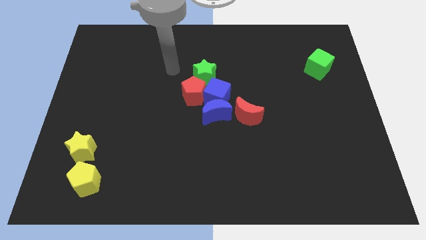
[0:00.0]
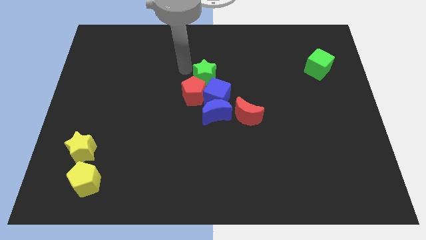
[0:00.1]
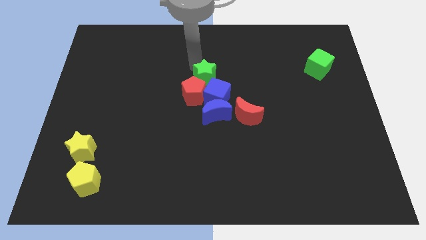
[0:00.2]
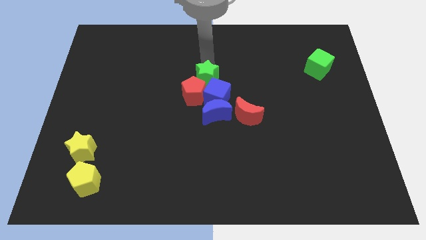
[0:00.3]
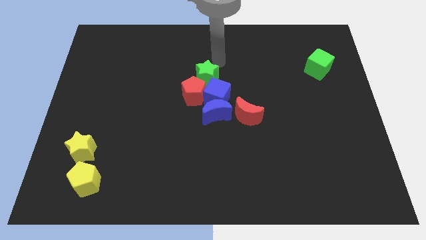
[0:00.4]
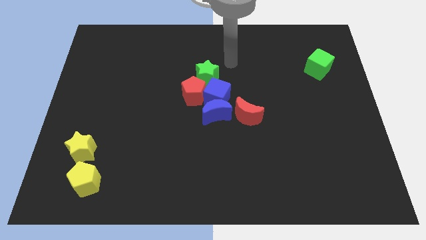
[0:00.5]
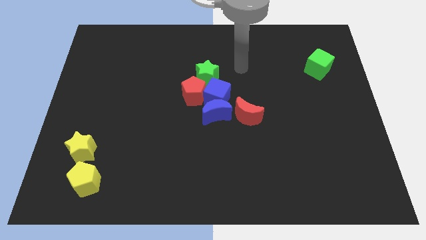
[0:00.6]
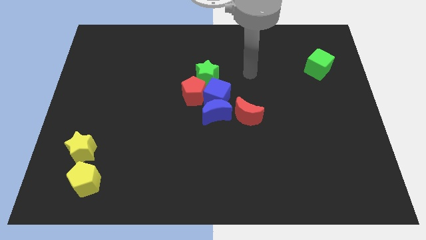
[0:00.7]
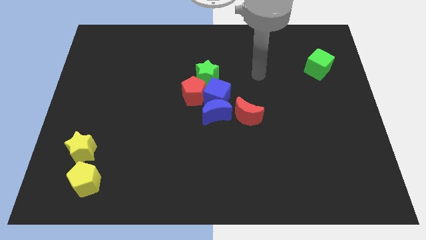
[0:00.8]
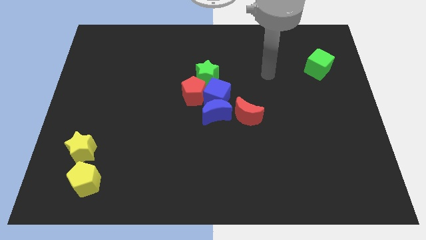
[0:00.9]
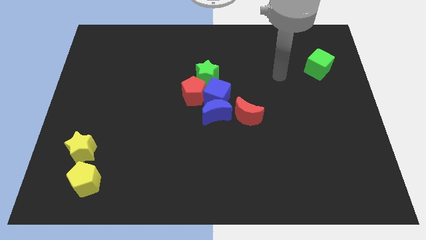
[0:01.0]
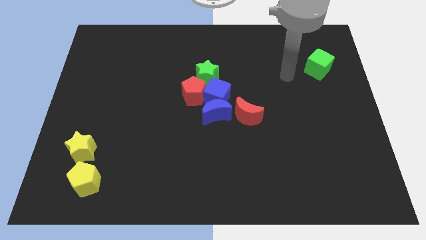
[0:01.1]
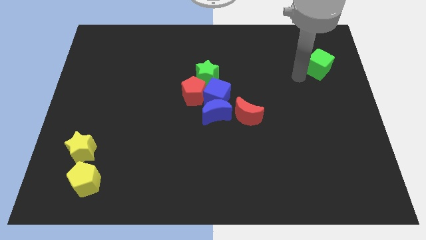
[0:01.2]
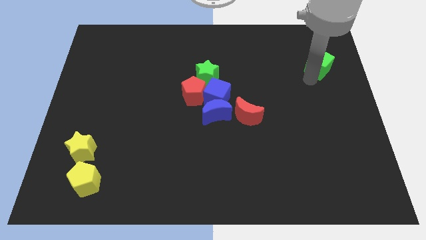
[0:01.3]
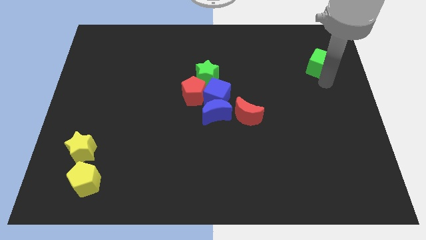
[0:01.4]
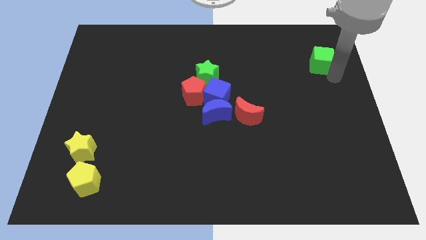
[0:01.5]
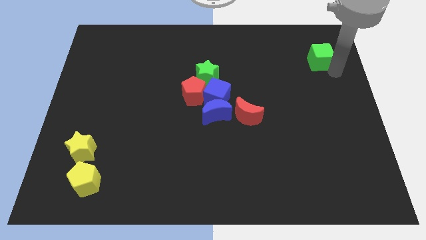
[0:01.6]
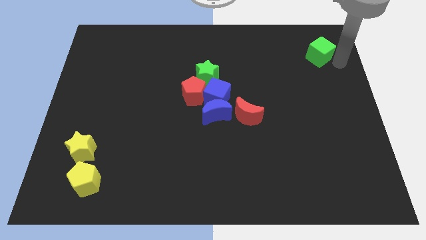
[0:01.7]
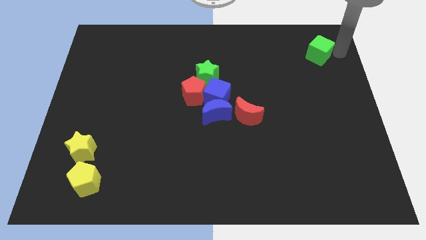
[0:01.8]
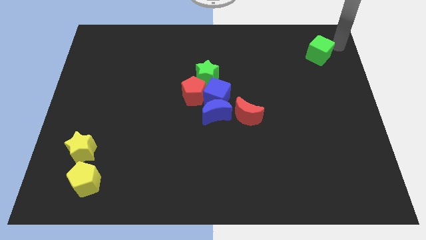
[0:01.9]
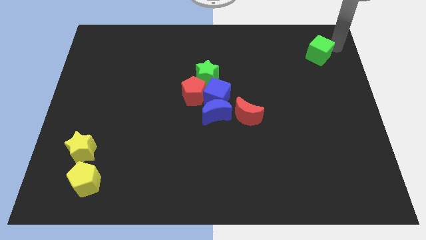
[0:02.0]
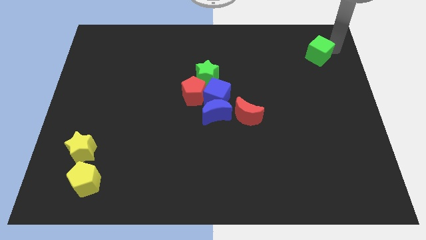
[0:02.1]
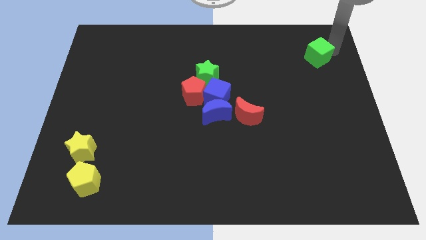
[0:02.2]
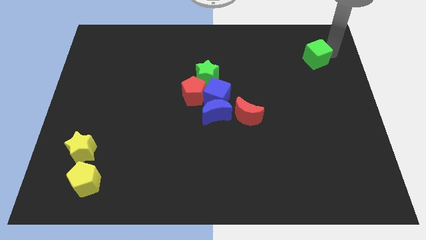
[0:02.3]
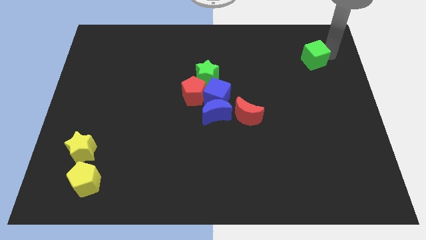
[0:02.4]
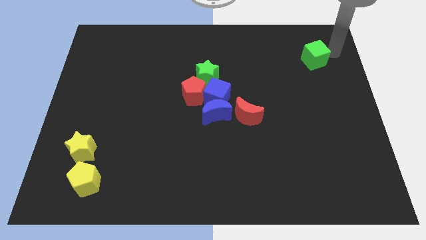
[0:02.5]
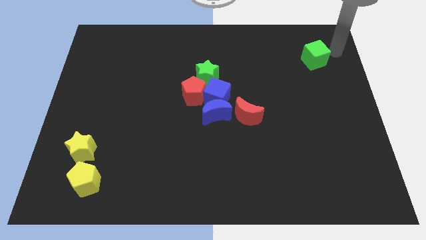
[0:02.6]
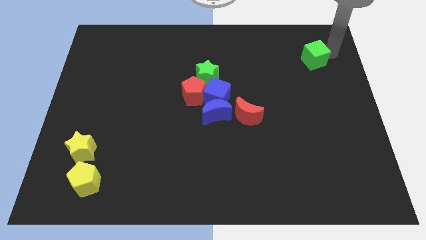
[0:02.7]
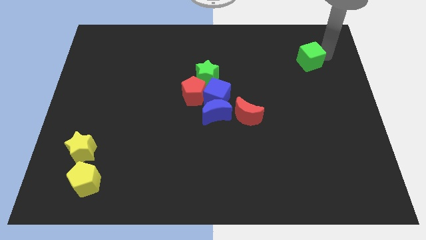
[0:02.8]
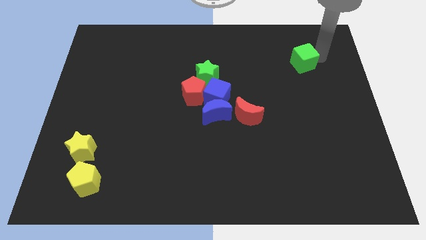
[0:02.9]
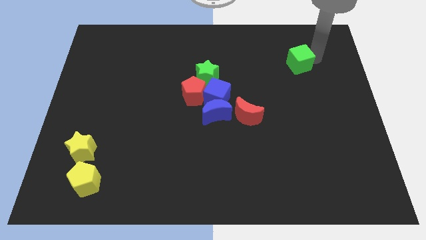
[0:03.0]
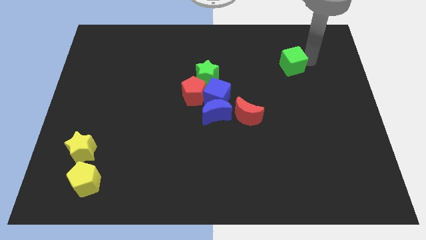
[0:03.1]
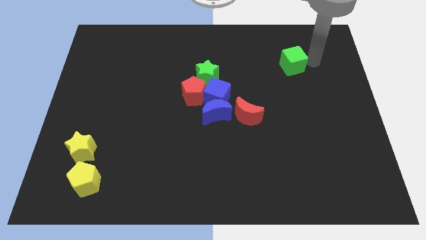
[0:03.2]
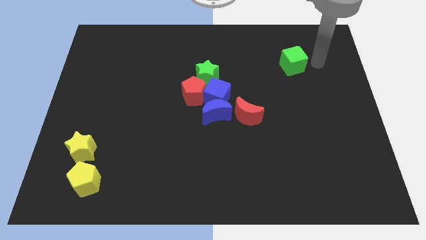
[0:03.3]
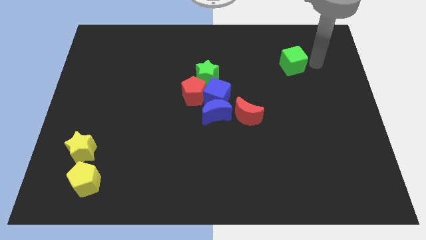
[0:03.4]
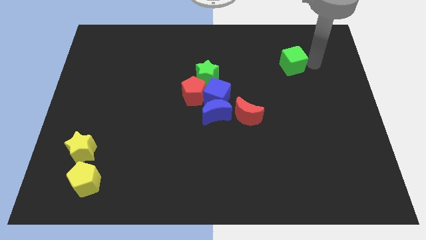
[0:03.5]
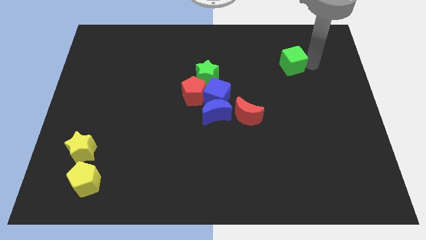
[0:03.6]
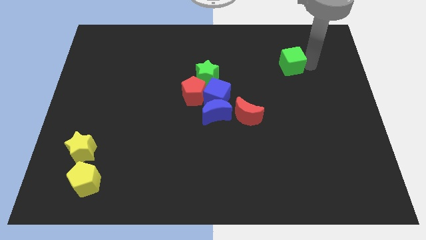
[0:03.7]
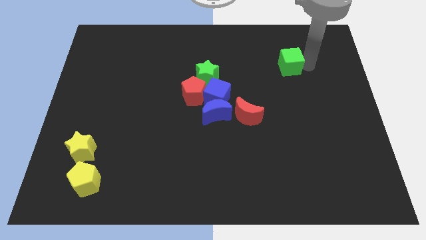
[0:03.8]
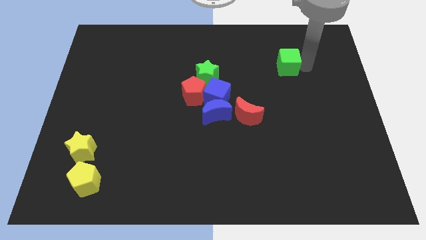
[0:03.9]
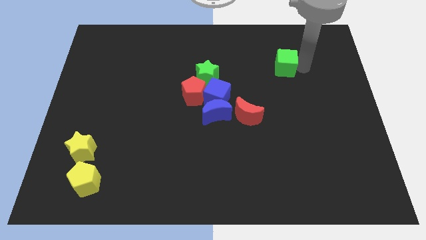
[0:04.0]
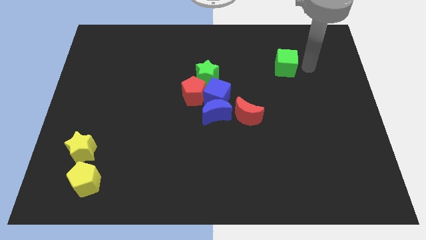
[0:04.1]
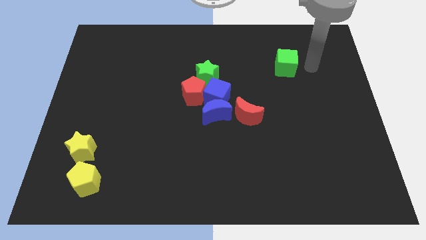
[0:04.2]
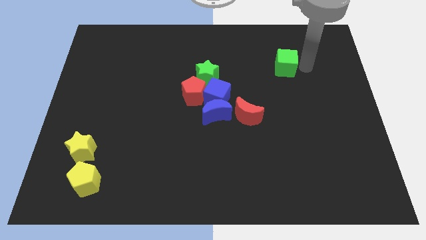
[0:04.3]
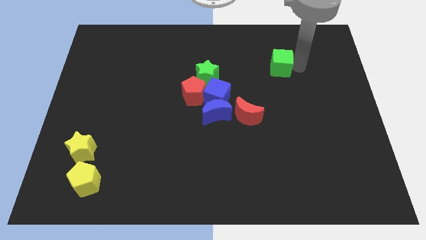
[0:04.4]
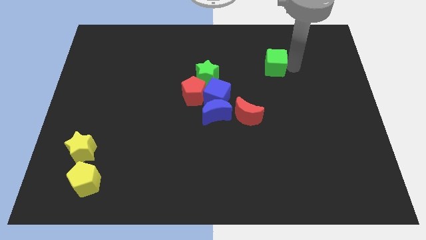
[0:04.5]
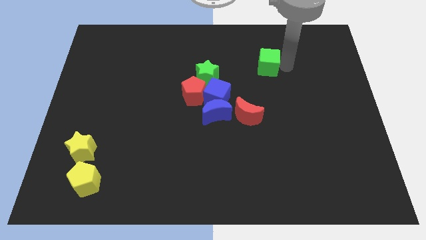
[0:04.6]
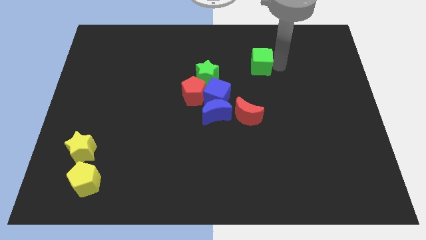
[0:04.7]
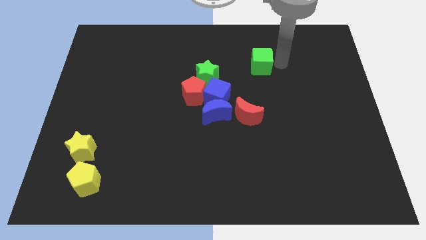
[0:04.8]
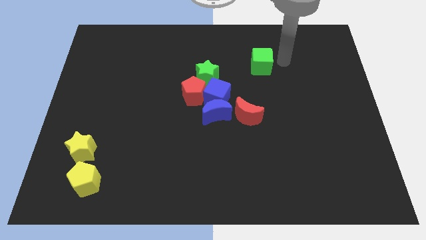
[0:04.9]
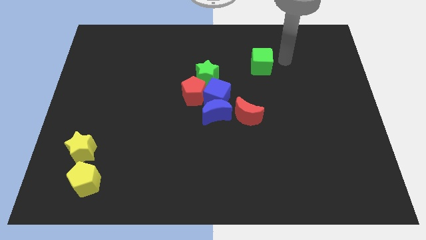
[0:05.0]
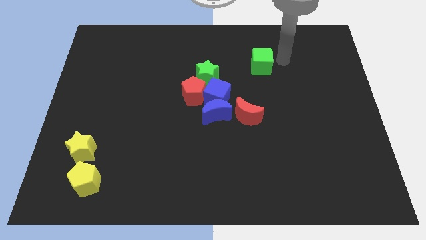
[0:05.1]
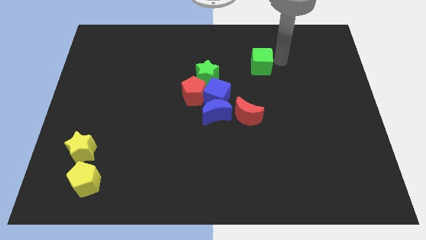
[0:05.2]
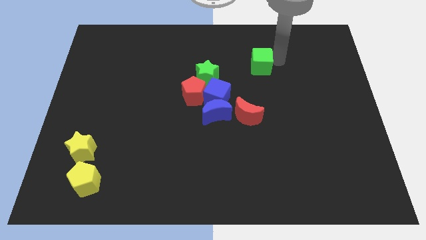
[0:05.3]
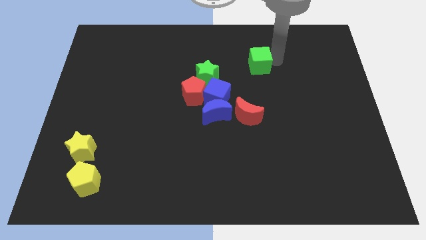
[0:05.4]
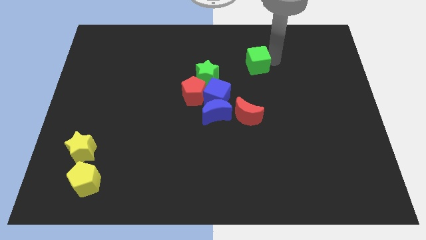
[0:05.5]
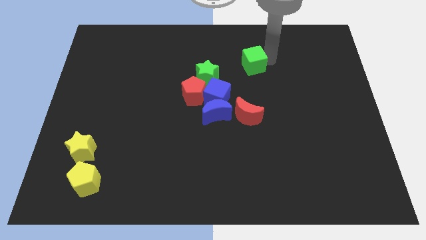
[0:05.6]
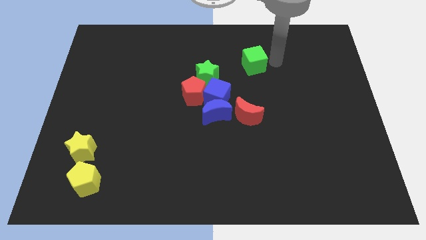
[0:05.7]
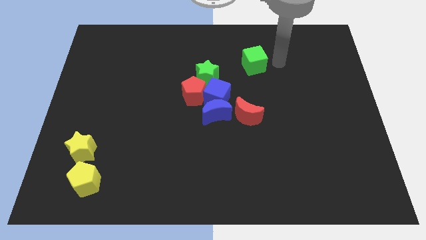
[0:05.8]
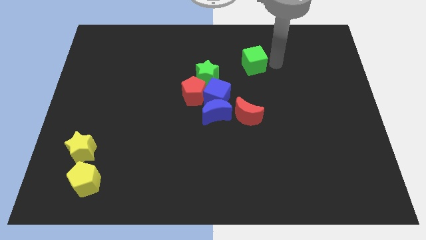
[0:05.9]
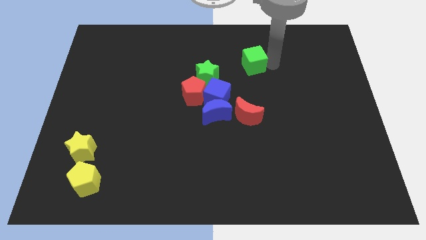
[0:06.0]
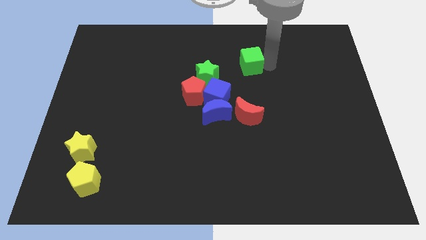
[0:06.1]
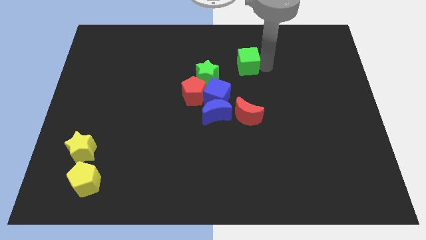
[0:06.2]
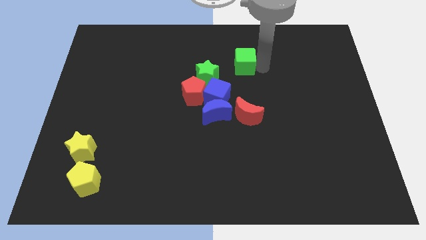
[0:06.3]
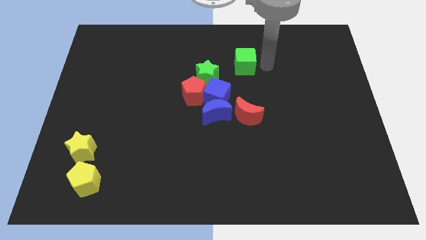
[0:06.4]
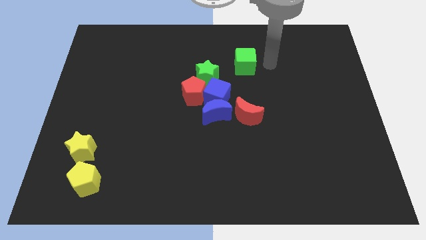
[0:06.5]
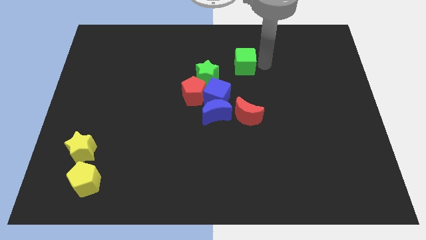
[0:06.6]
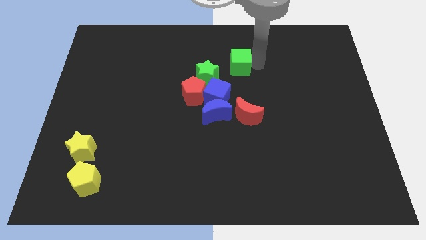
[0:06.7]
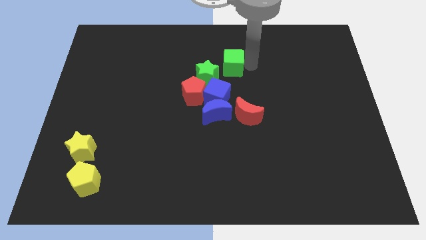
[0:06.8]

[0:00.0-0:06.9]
slide the green cube above the blue cube
